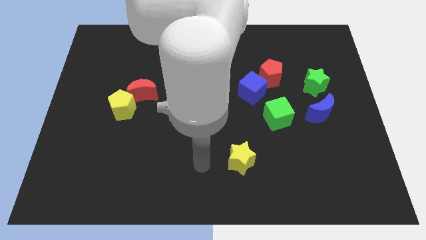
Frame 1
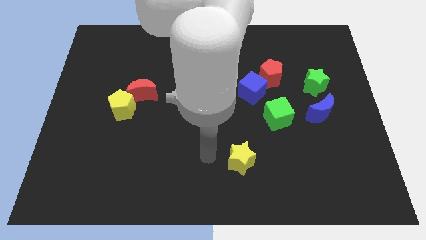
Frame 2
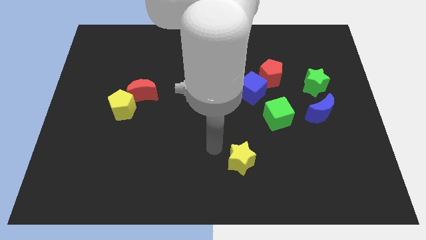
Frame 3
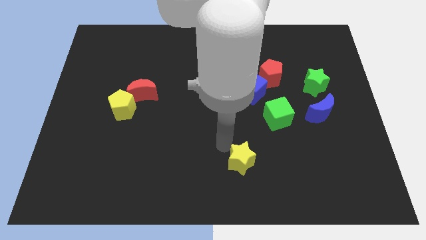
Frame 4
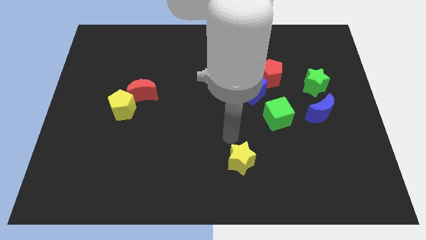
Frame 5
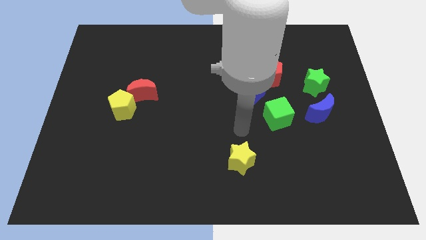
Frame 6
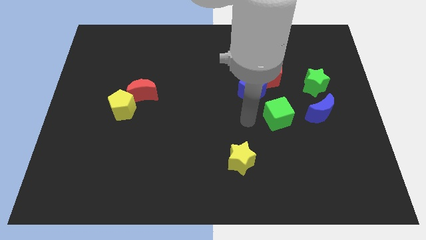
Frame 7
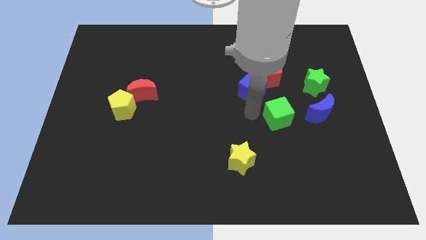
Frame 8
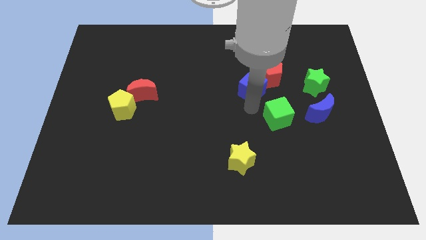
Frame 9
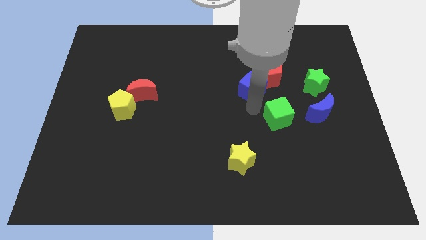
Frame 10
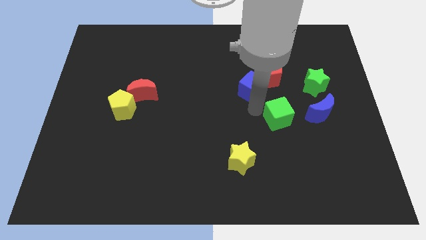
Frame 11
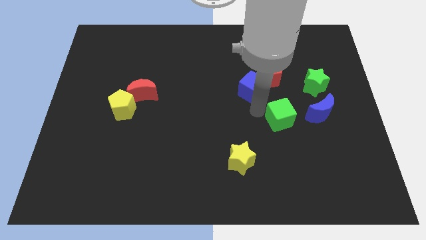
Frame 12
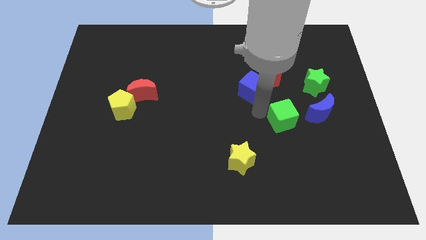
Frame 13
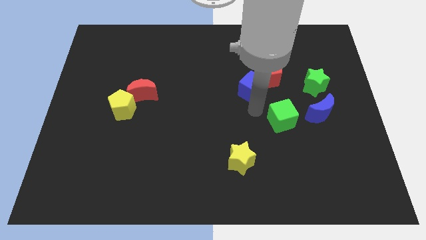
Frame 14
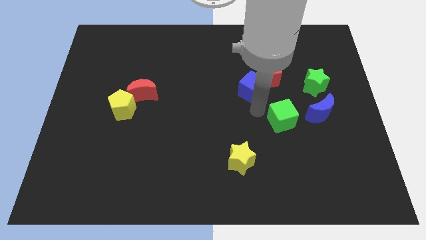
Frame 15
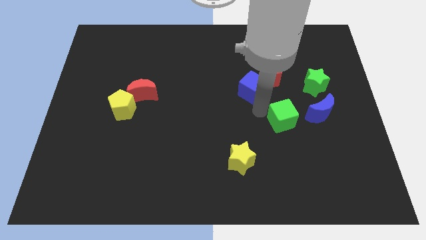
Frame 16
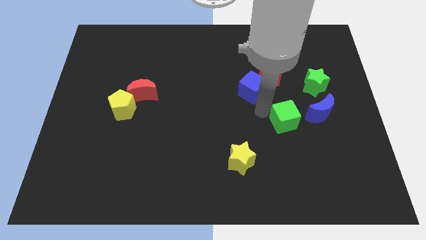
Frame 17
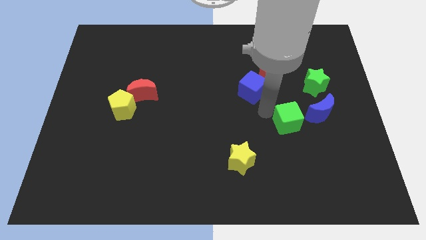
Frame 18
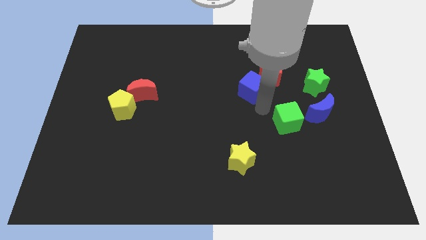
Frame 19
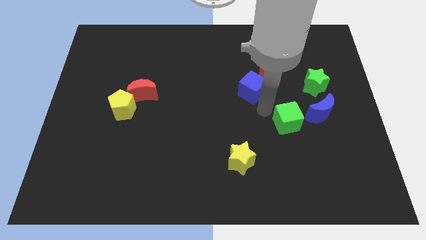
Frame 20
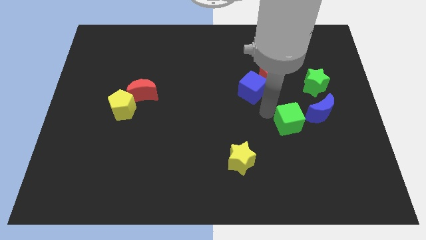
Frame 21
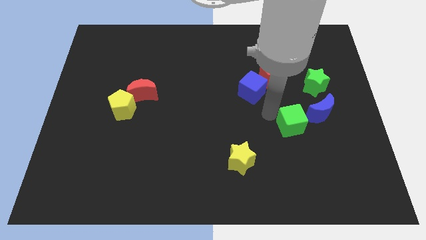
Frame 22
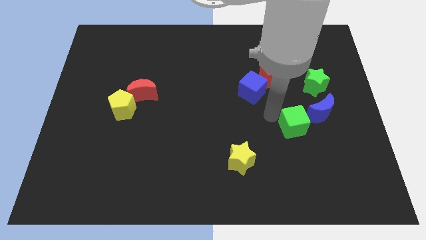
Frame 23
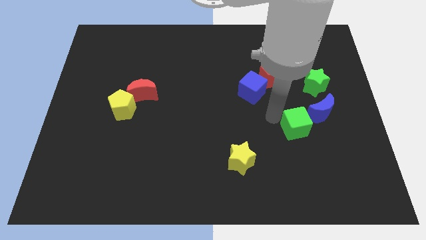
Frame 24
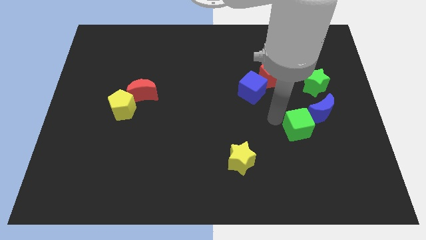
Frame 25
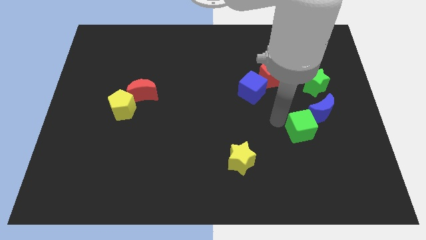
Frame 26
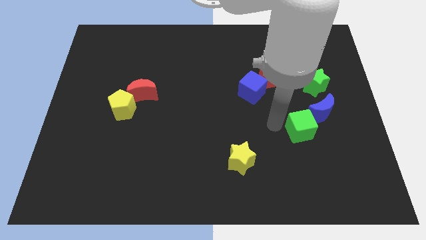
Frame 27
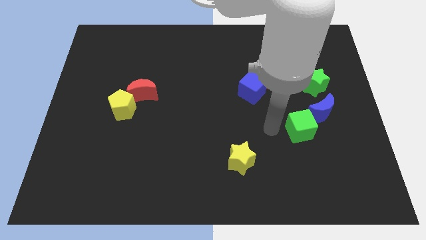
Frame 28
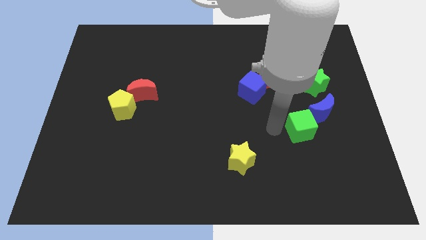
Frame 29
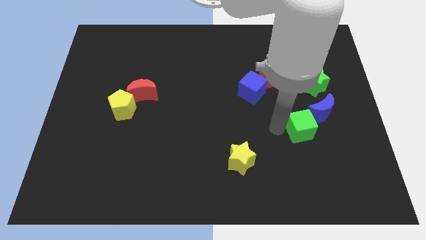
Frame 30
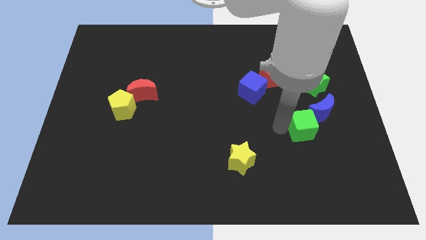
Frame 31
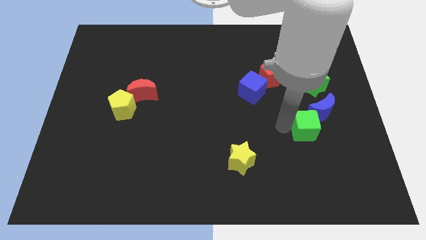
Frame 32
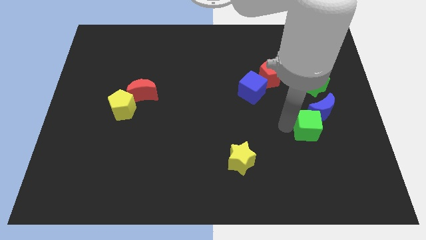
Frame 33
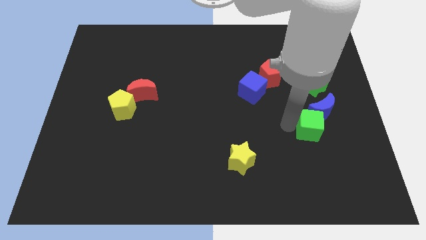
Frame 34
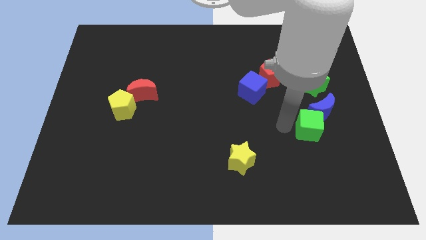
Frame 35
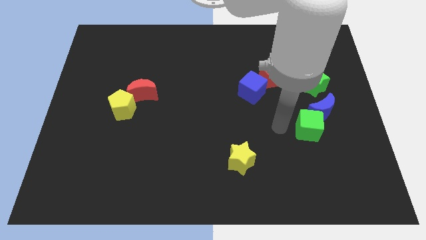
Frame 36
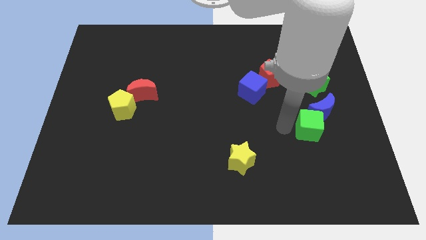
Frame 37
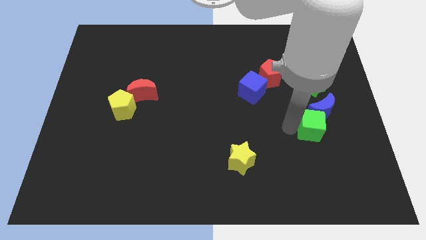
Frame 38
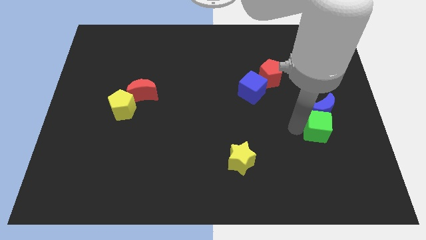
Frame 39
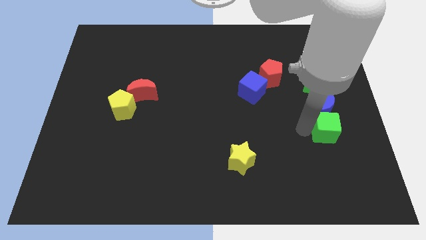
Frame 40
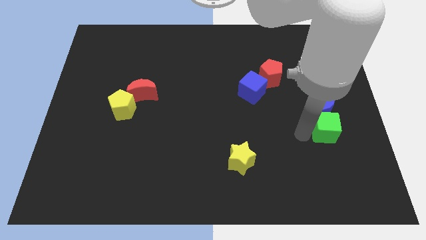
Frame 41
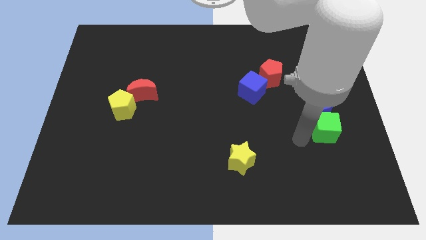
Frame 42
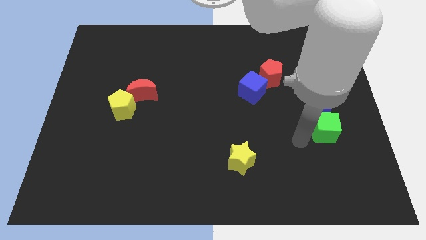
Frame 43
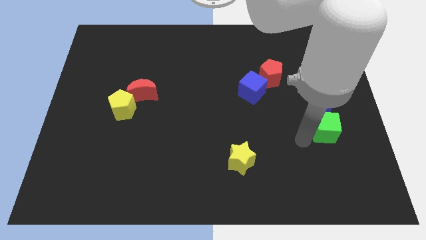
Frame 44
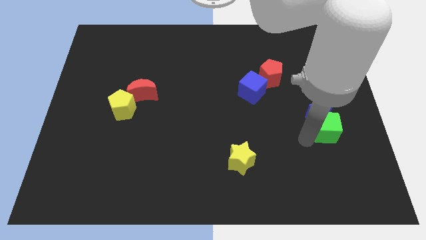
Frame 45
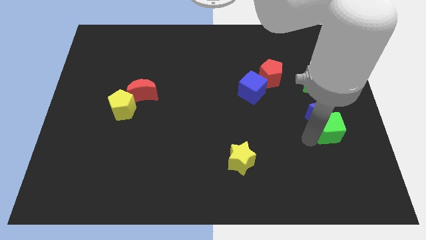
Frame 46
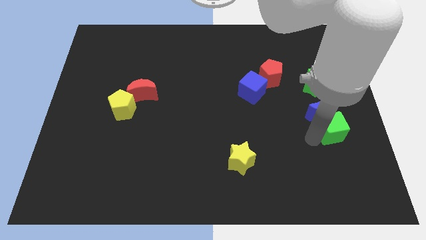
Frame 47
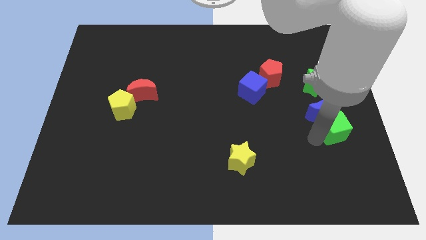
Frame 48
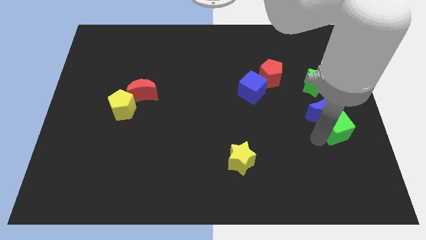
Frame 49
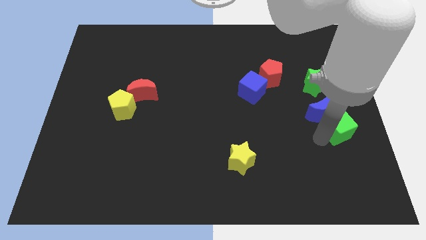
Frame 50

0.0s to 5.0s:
move the green cube to the center right

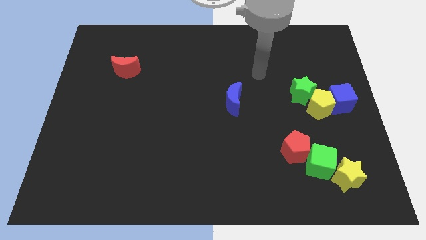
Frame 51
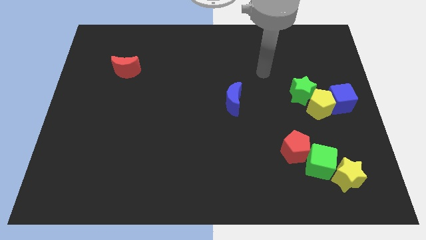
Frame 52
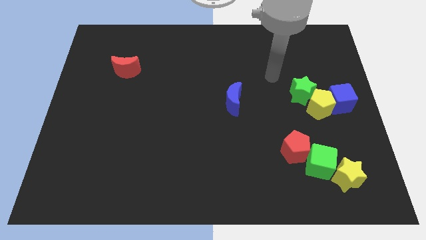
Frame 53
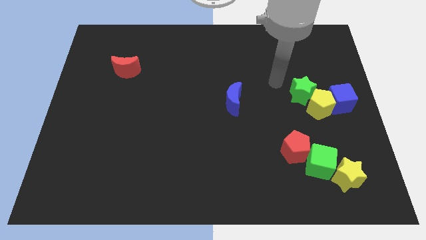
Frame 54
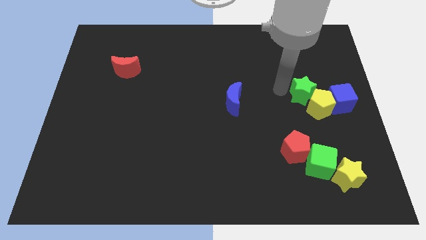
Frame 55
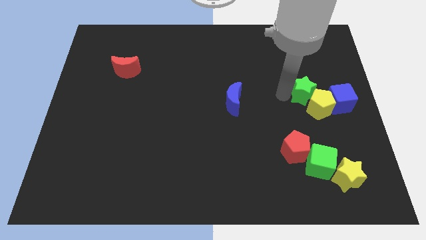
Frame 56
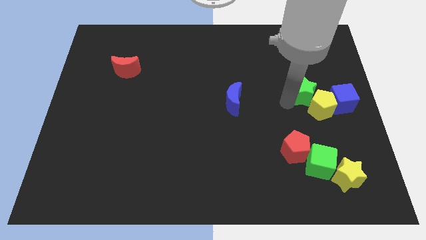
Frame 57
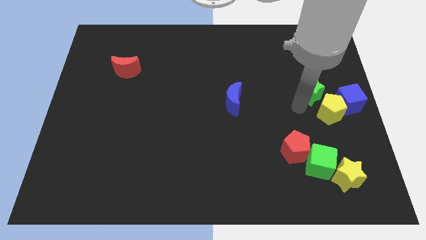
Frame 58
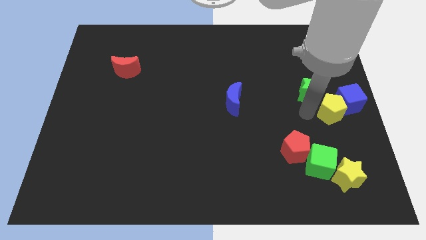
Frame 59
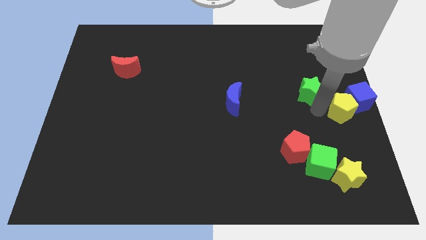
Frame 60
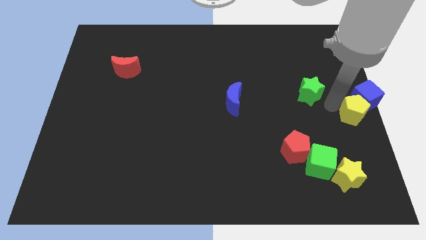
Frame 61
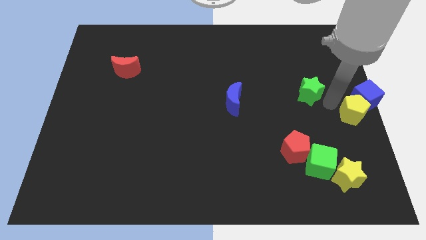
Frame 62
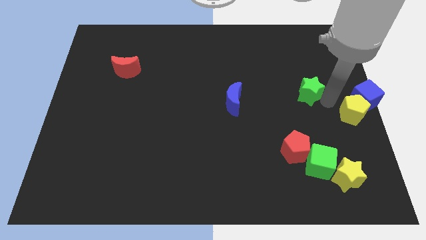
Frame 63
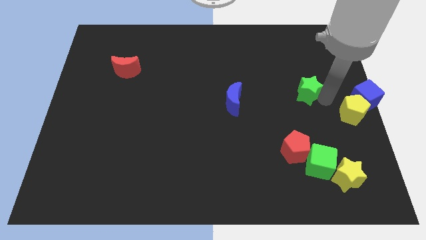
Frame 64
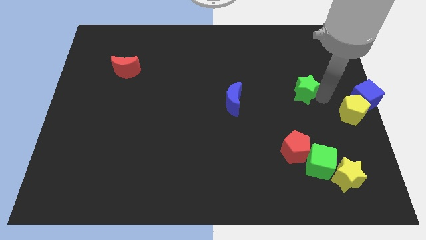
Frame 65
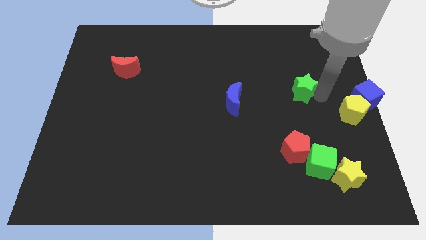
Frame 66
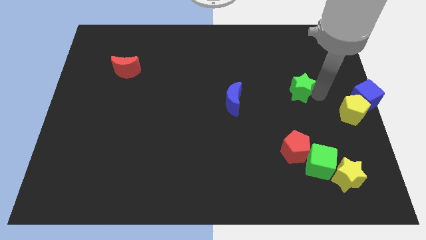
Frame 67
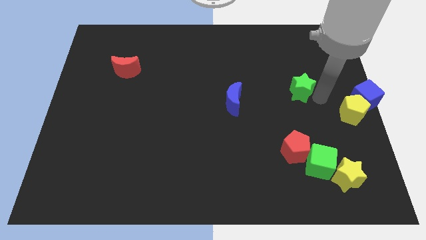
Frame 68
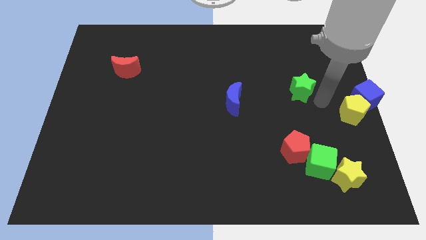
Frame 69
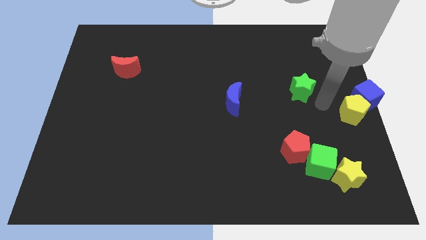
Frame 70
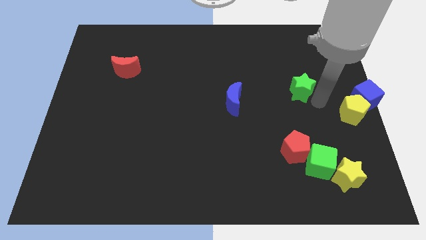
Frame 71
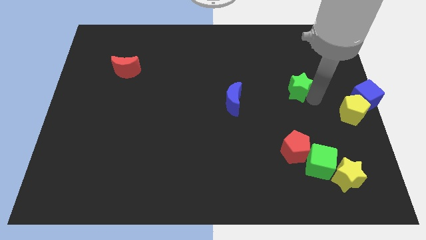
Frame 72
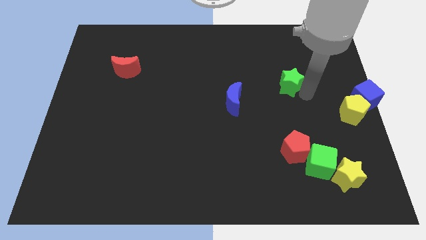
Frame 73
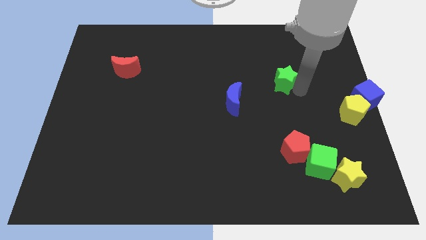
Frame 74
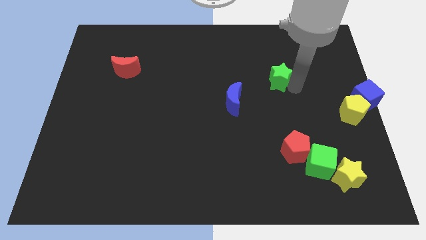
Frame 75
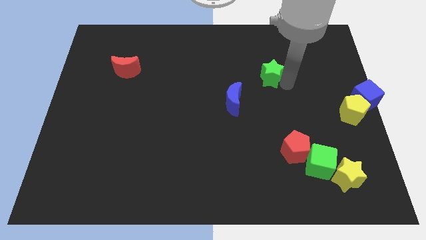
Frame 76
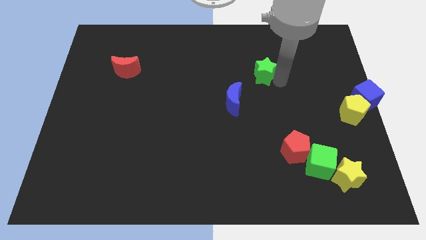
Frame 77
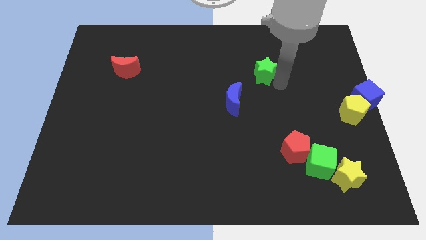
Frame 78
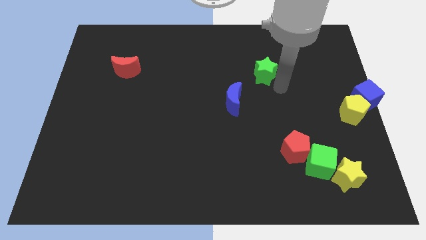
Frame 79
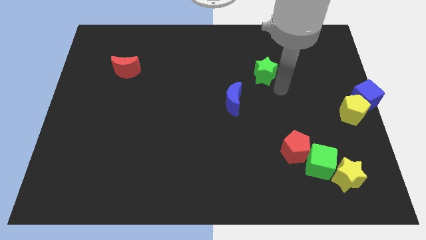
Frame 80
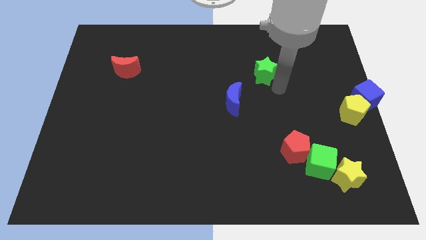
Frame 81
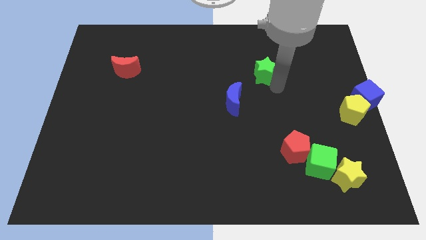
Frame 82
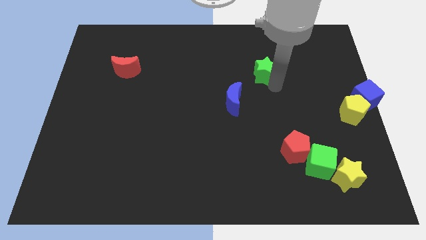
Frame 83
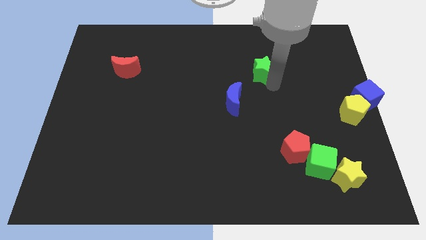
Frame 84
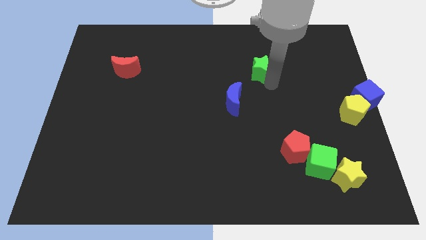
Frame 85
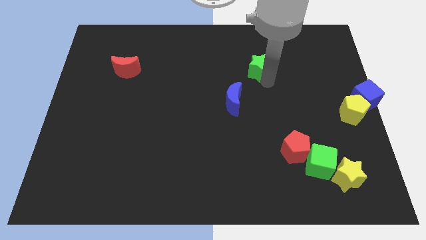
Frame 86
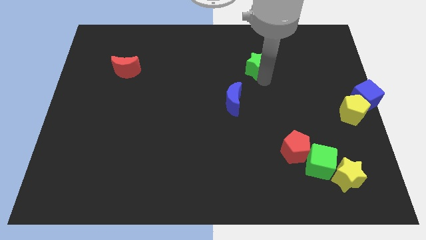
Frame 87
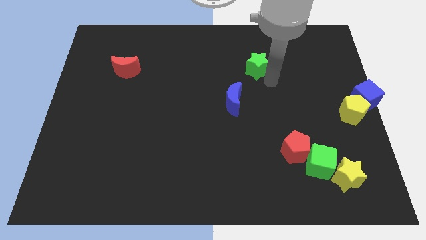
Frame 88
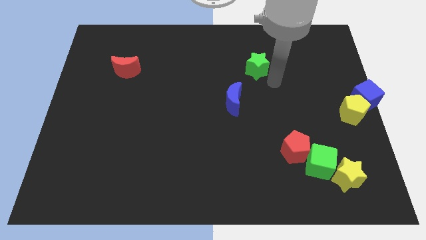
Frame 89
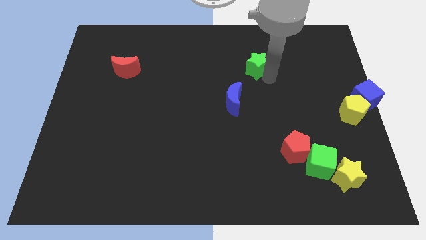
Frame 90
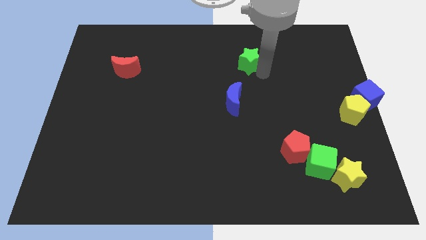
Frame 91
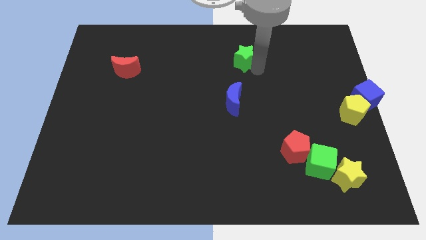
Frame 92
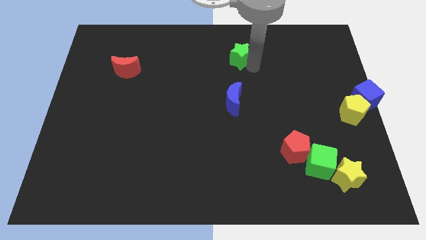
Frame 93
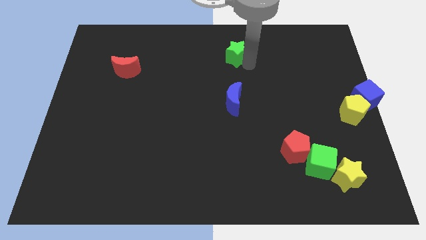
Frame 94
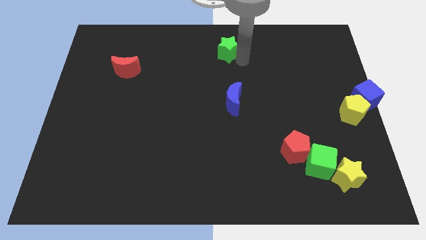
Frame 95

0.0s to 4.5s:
put the green star to the top
